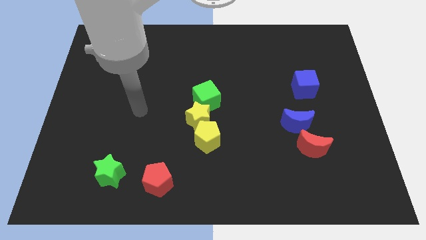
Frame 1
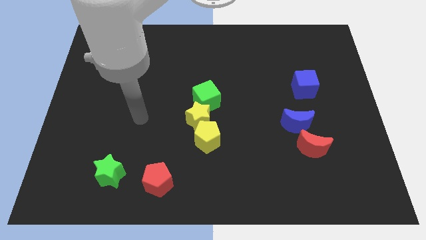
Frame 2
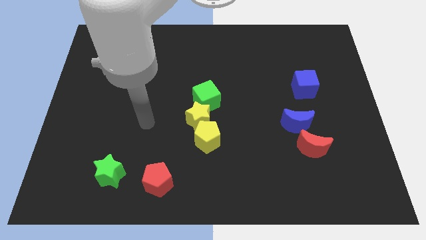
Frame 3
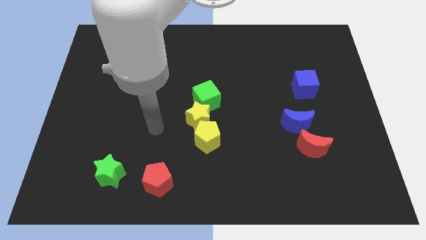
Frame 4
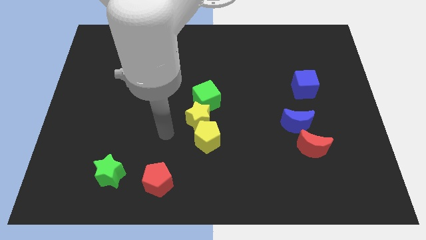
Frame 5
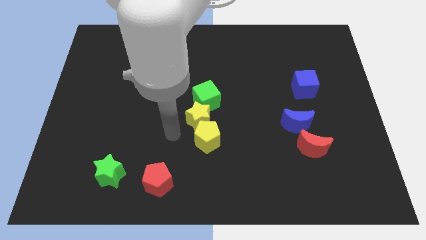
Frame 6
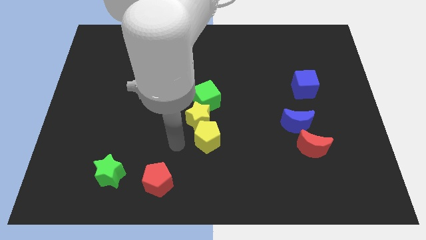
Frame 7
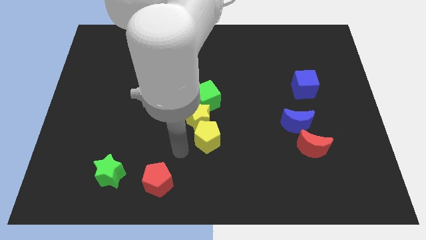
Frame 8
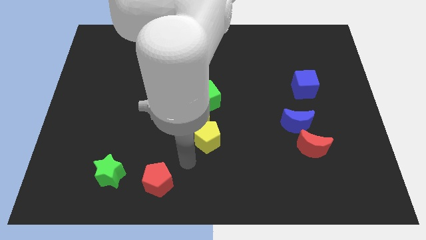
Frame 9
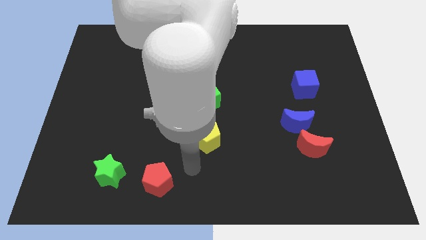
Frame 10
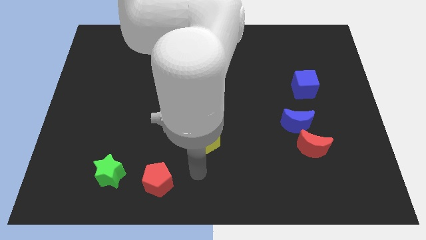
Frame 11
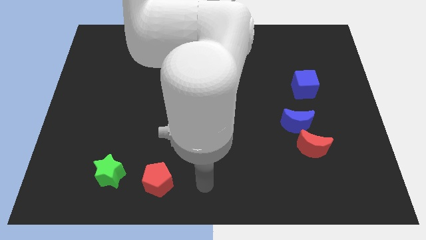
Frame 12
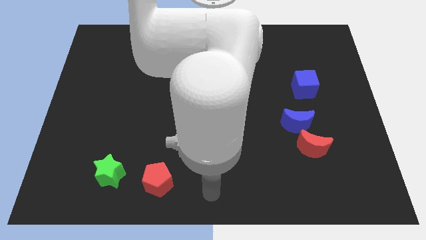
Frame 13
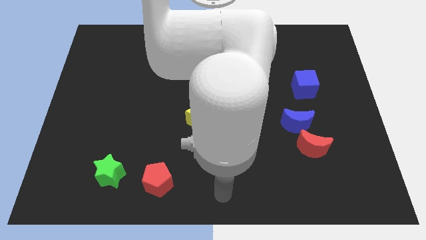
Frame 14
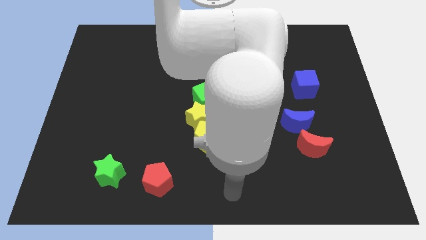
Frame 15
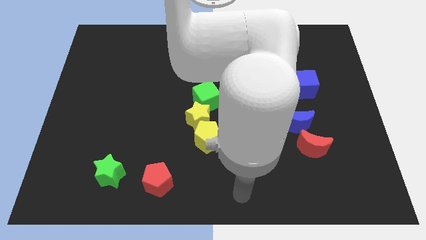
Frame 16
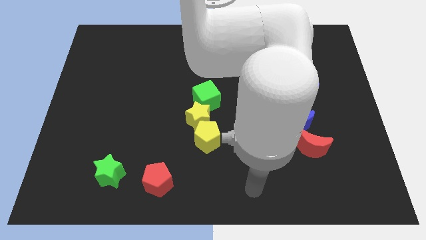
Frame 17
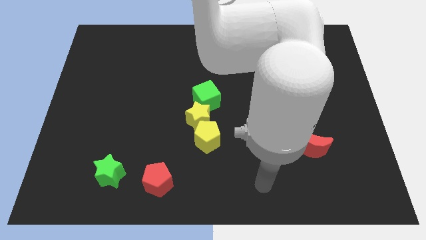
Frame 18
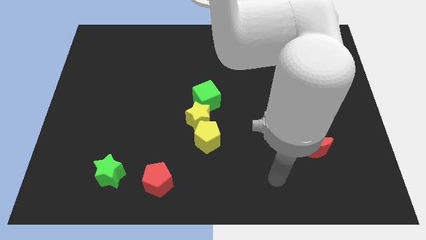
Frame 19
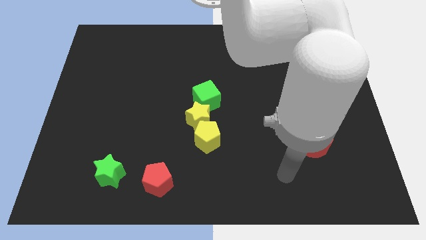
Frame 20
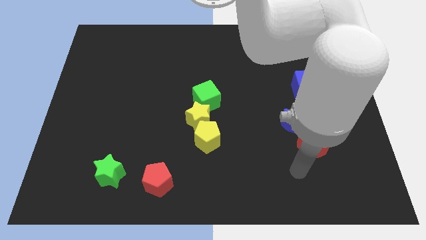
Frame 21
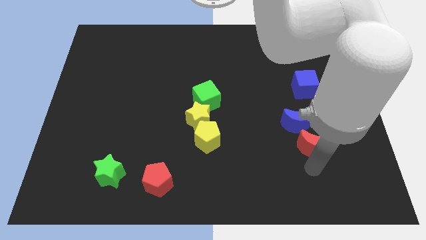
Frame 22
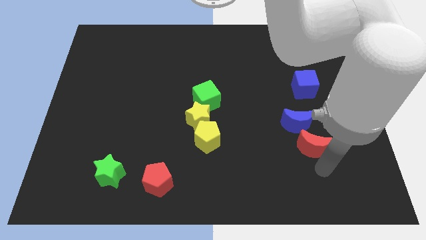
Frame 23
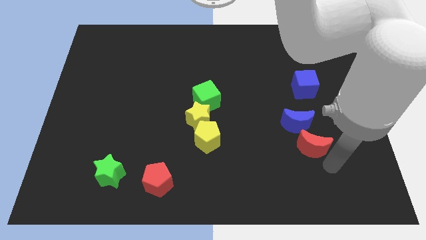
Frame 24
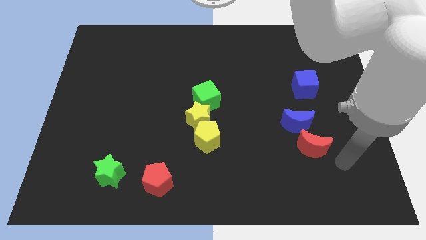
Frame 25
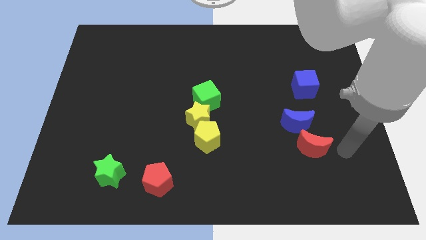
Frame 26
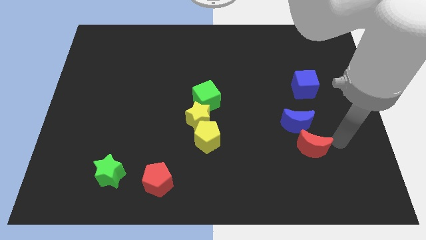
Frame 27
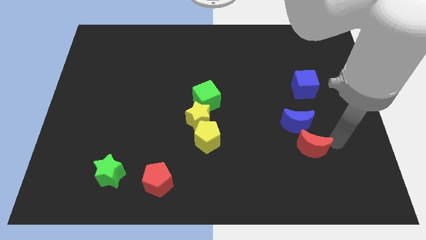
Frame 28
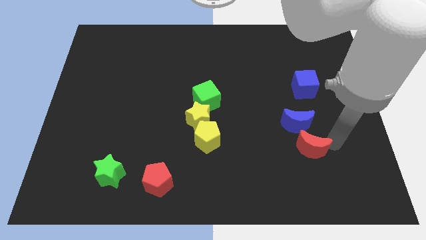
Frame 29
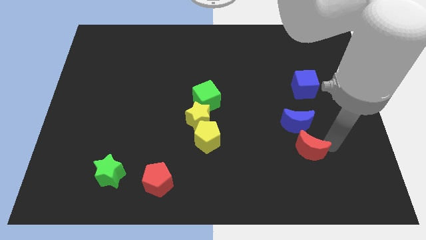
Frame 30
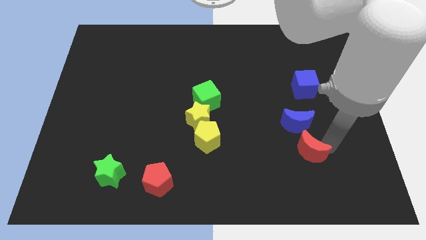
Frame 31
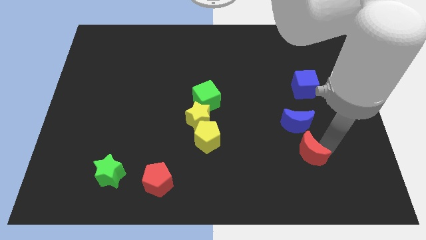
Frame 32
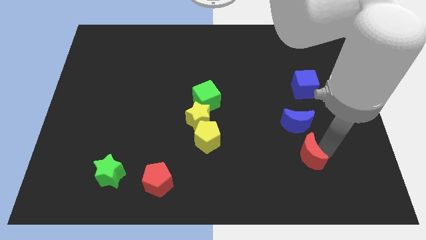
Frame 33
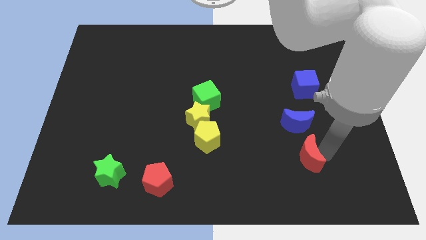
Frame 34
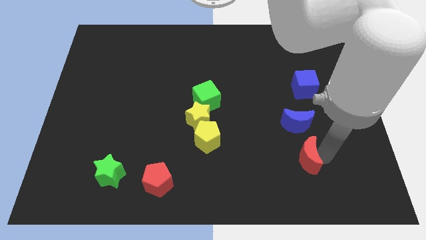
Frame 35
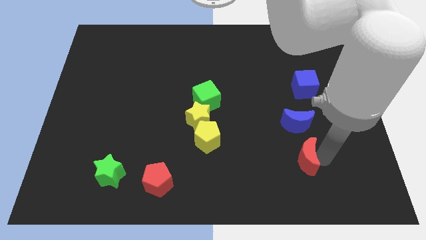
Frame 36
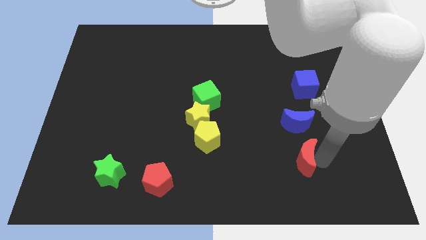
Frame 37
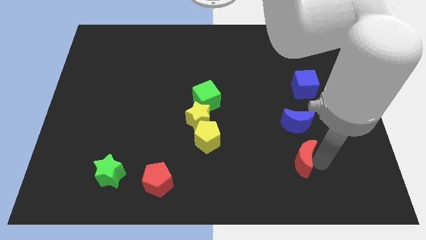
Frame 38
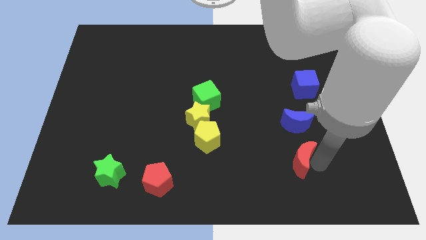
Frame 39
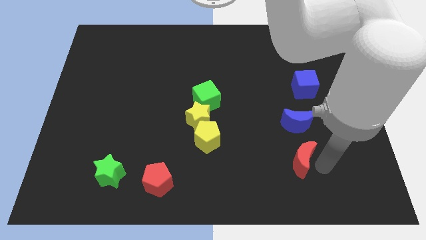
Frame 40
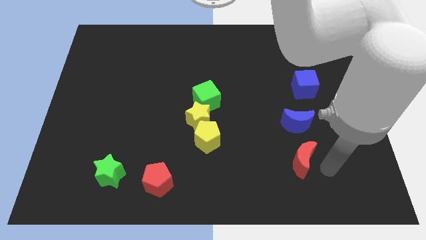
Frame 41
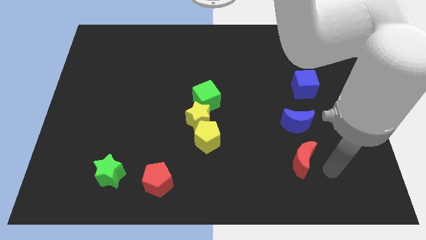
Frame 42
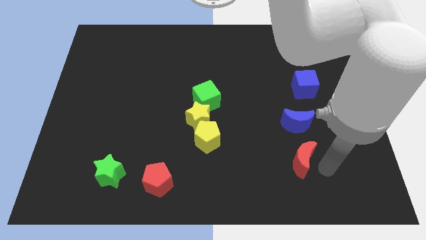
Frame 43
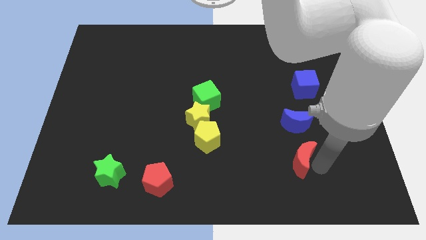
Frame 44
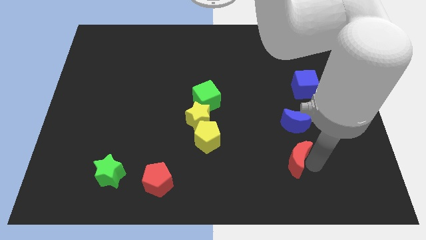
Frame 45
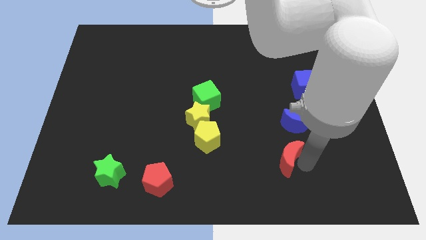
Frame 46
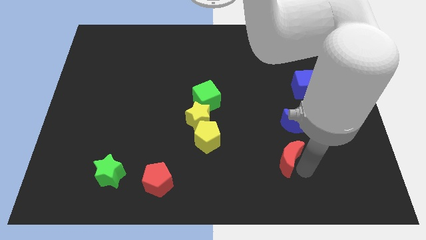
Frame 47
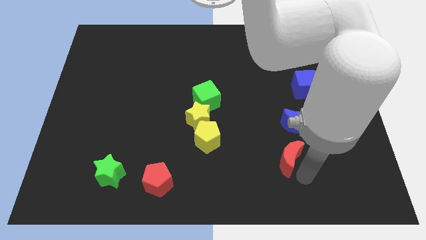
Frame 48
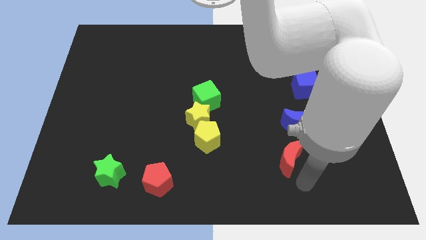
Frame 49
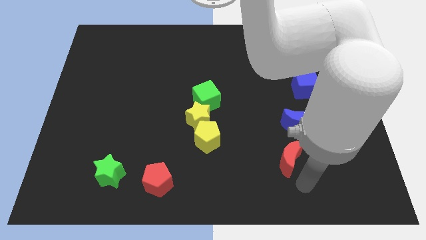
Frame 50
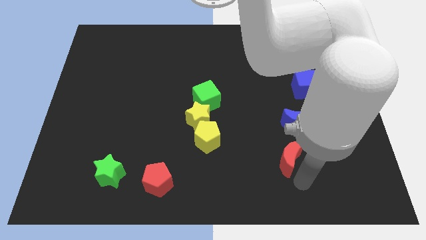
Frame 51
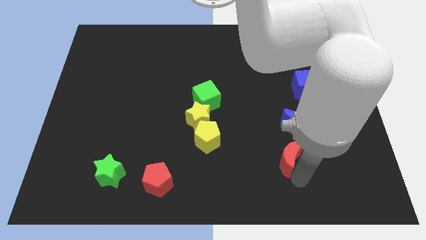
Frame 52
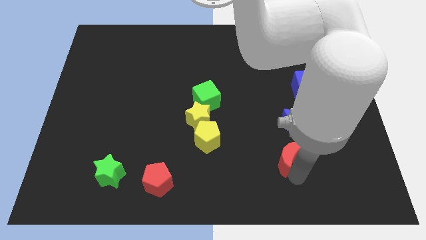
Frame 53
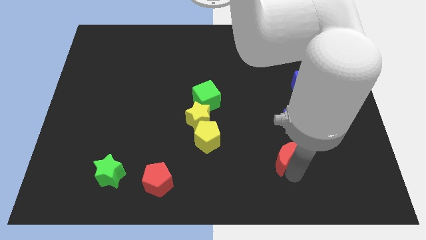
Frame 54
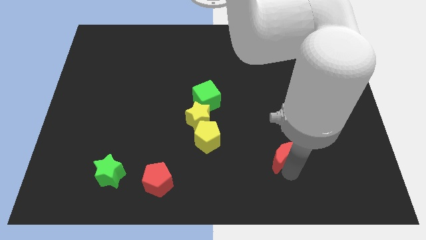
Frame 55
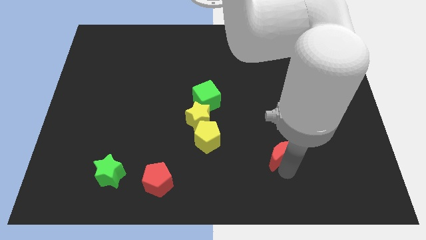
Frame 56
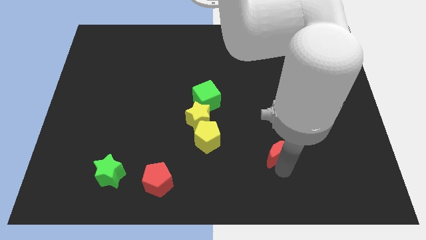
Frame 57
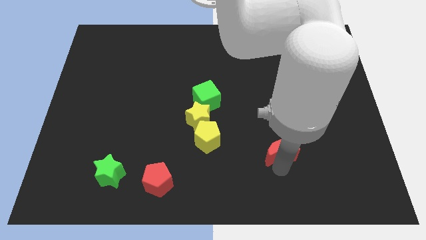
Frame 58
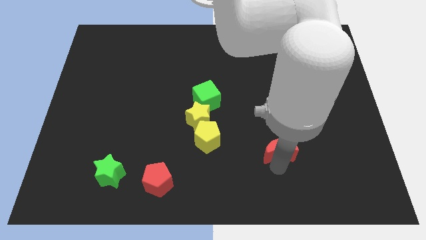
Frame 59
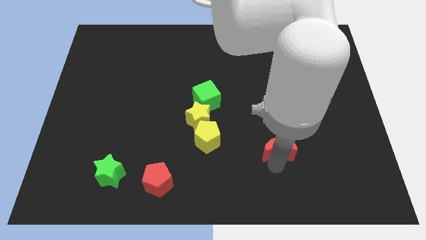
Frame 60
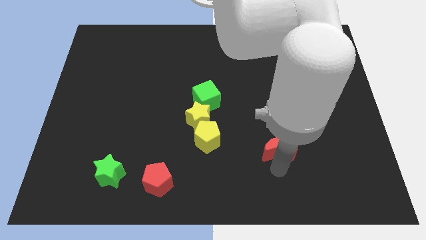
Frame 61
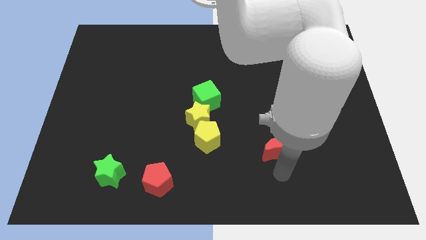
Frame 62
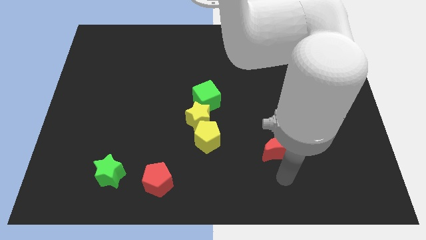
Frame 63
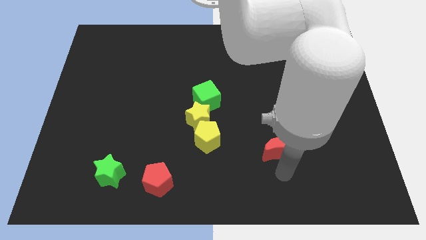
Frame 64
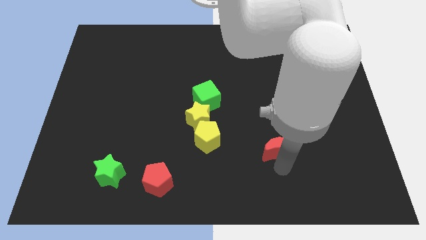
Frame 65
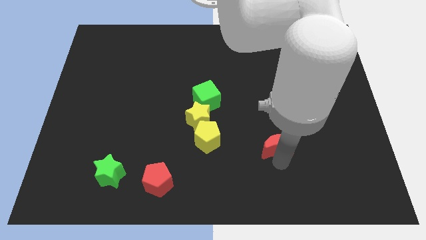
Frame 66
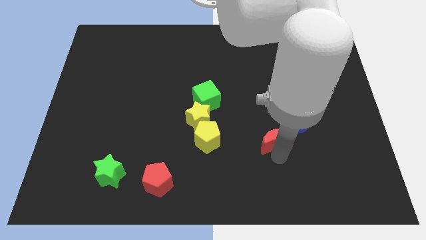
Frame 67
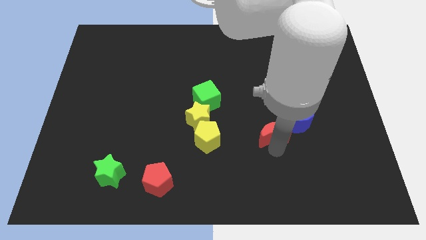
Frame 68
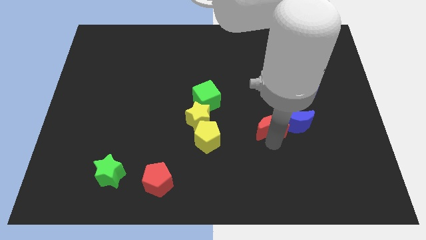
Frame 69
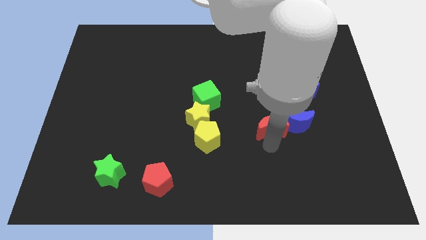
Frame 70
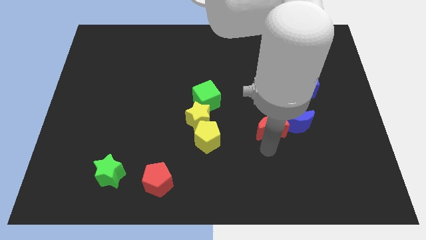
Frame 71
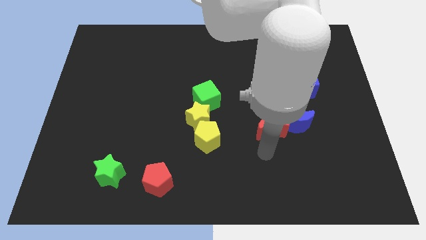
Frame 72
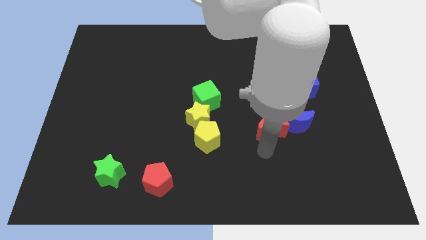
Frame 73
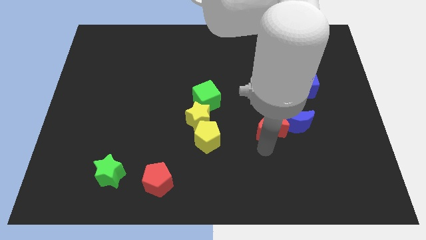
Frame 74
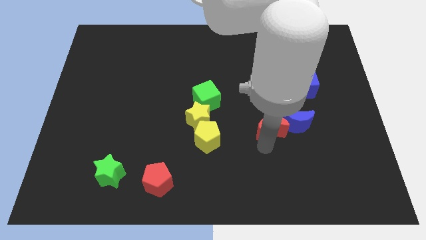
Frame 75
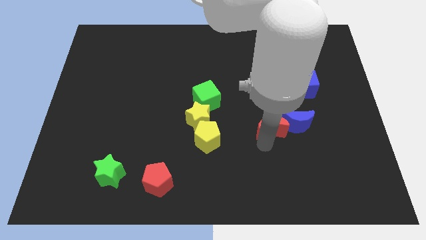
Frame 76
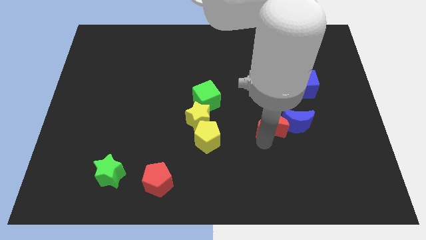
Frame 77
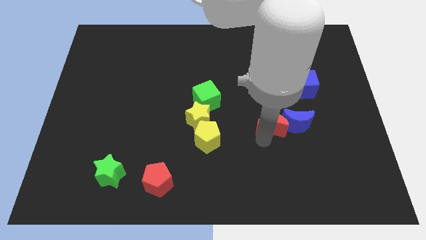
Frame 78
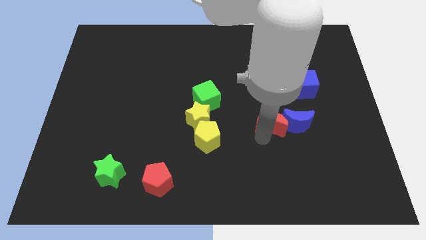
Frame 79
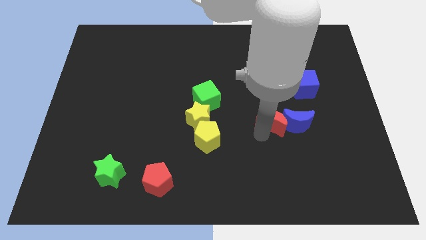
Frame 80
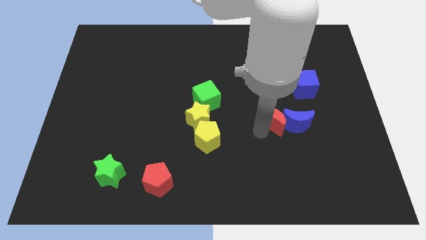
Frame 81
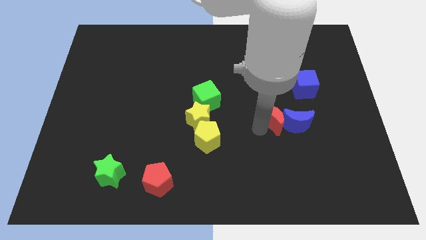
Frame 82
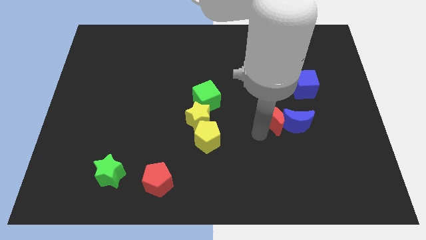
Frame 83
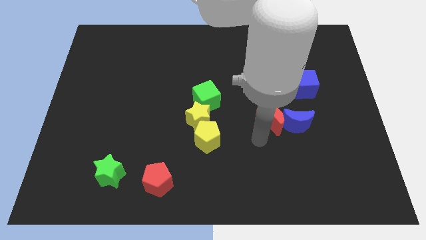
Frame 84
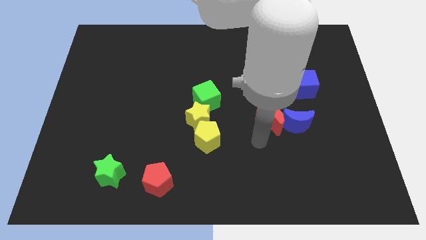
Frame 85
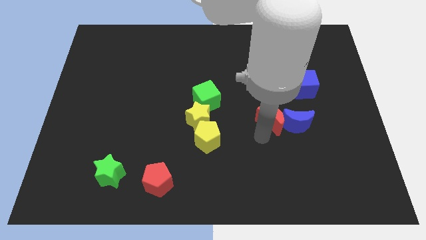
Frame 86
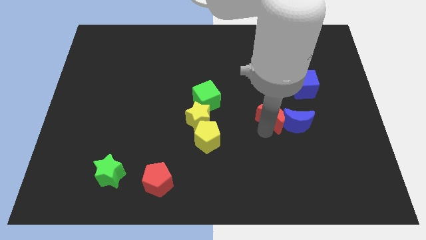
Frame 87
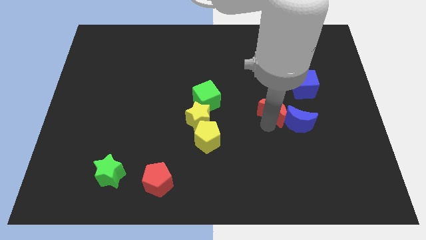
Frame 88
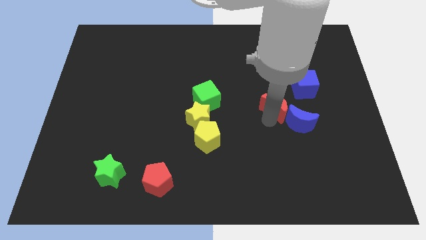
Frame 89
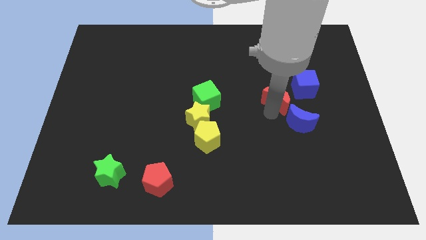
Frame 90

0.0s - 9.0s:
move the red moon to the top of the blue moon
